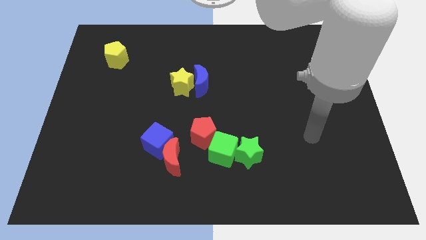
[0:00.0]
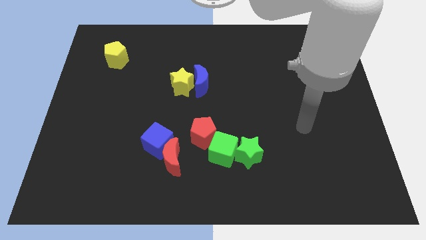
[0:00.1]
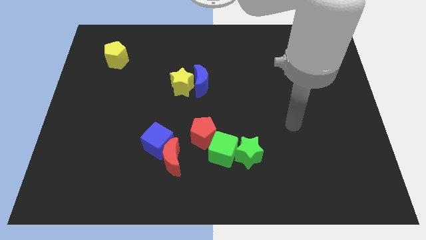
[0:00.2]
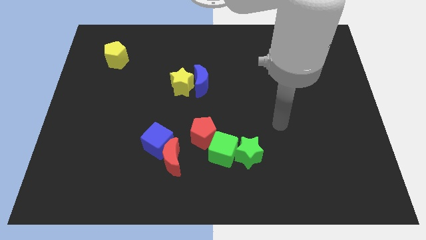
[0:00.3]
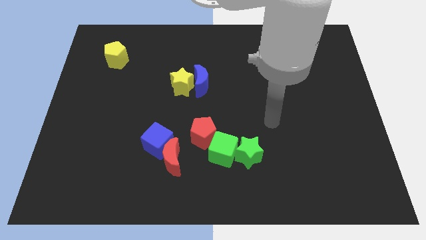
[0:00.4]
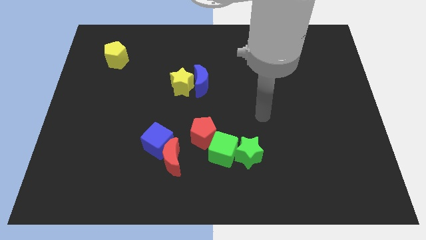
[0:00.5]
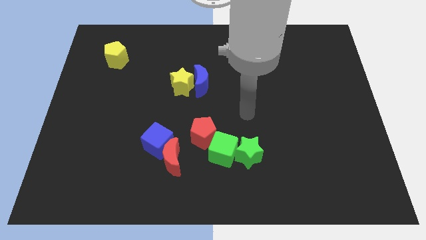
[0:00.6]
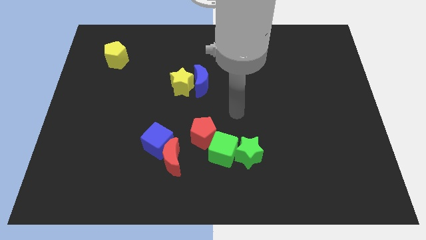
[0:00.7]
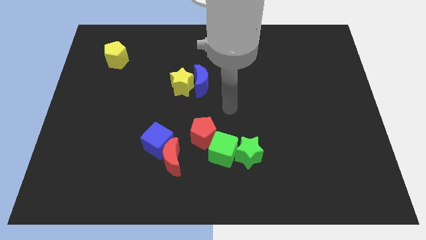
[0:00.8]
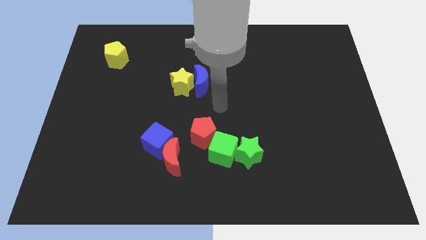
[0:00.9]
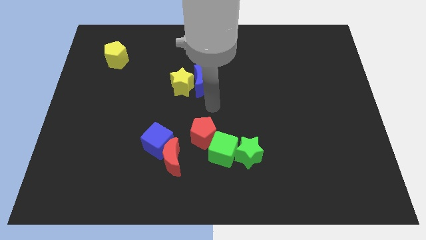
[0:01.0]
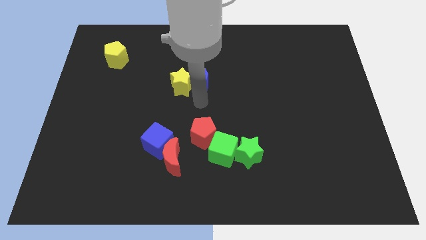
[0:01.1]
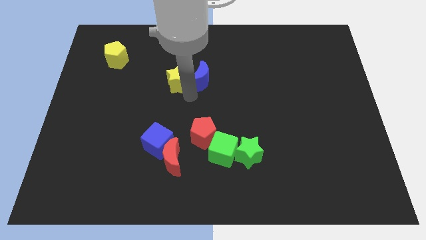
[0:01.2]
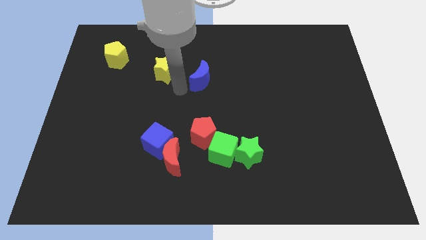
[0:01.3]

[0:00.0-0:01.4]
move the blue moon away from the yellow star

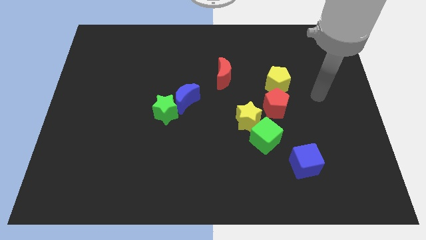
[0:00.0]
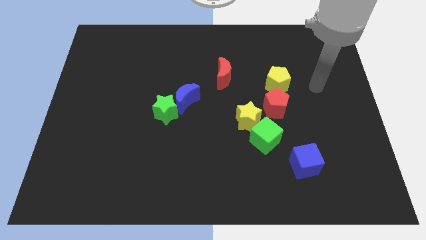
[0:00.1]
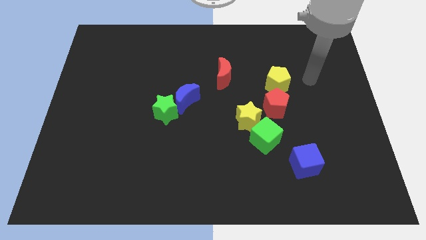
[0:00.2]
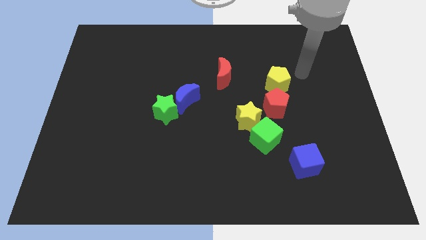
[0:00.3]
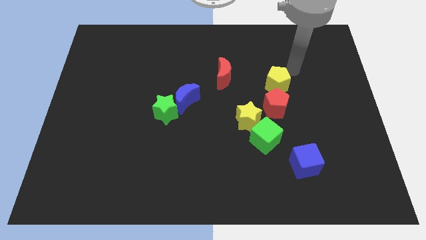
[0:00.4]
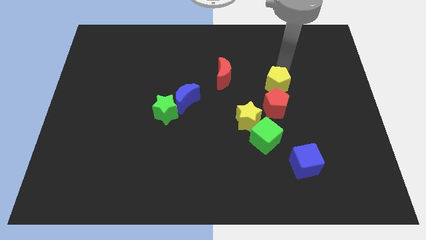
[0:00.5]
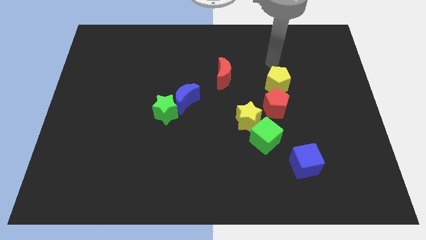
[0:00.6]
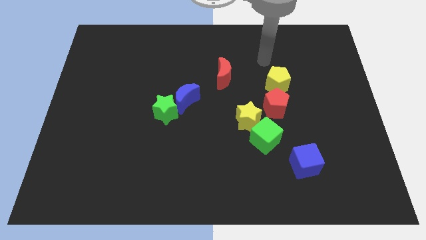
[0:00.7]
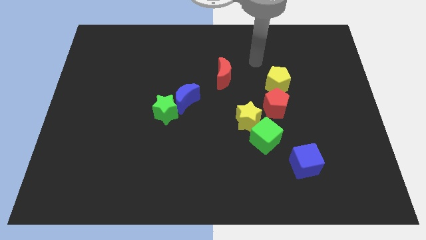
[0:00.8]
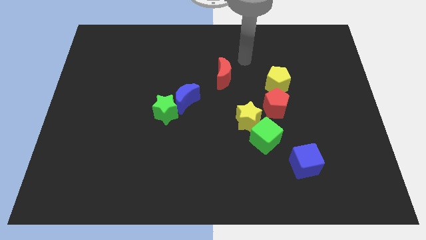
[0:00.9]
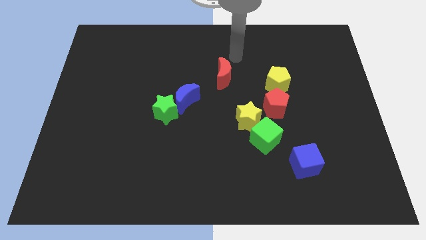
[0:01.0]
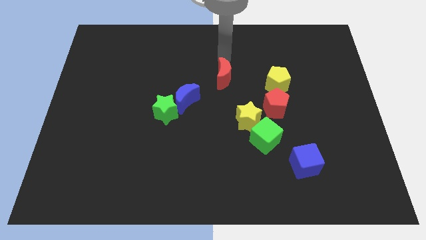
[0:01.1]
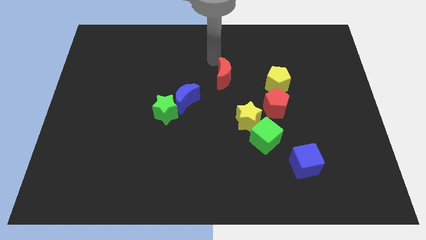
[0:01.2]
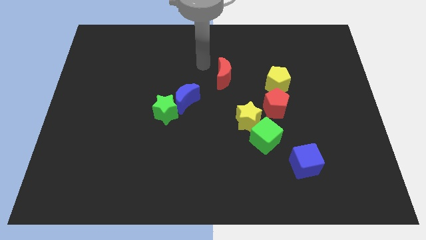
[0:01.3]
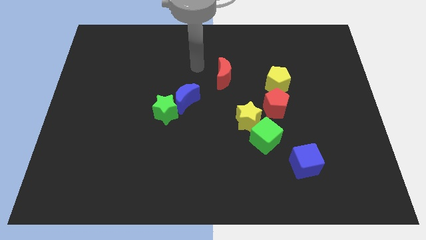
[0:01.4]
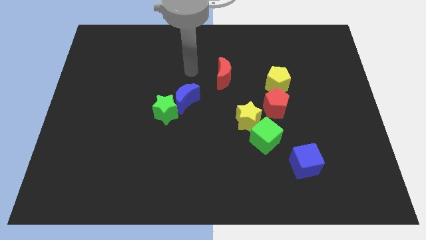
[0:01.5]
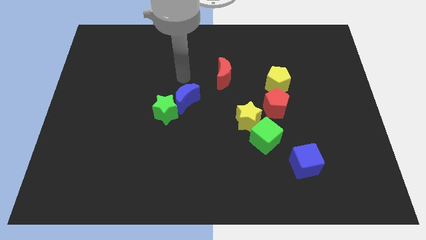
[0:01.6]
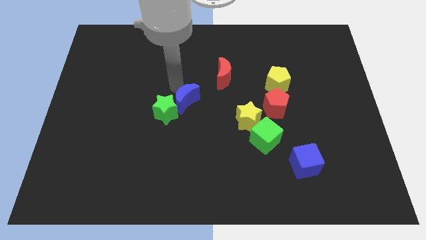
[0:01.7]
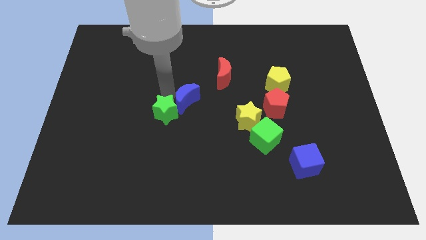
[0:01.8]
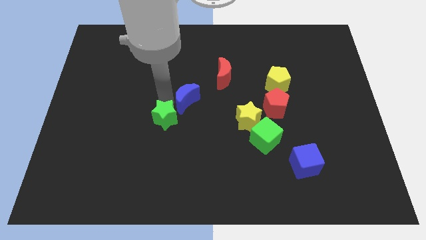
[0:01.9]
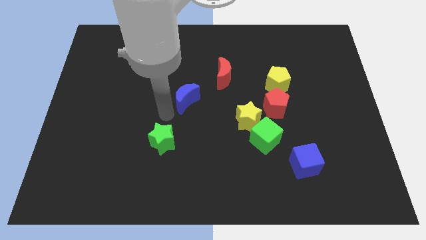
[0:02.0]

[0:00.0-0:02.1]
pull the blue moon apart from the green star

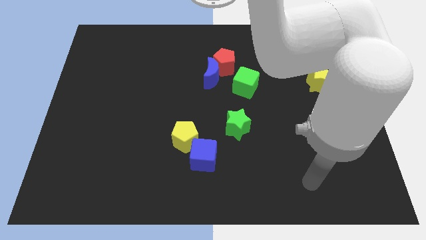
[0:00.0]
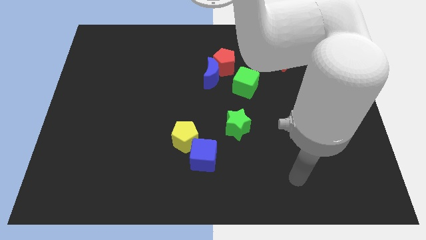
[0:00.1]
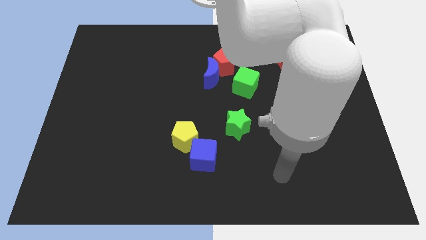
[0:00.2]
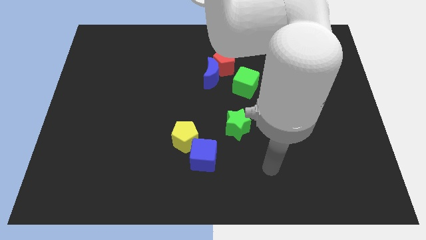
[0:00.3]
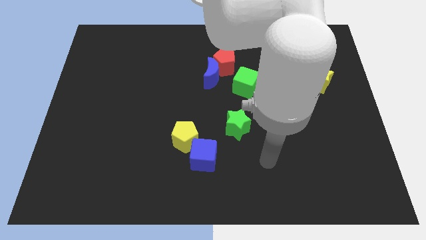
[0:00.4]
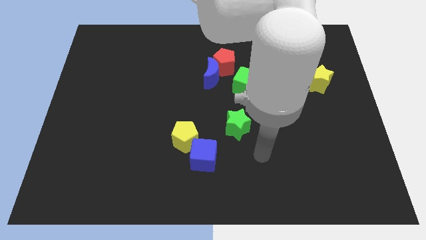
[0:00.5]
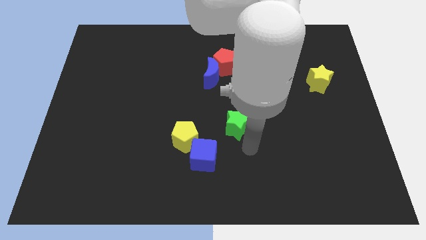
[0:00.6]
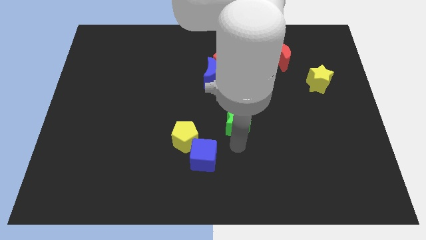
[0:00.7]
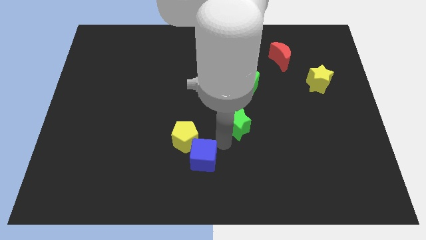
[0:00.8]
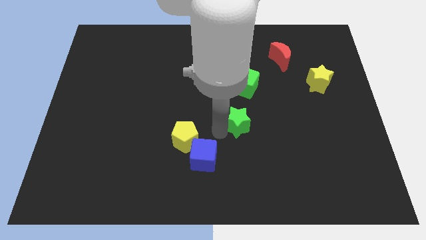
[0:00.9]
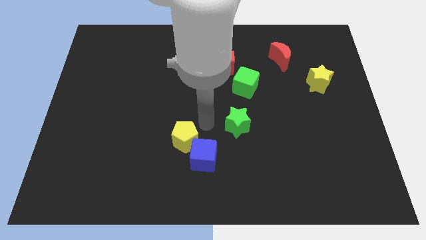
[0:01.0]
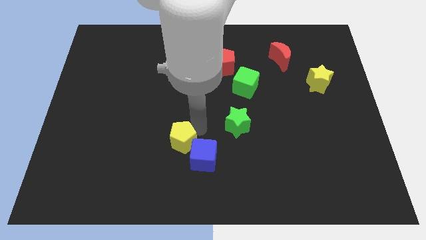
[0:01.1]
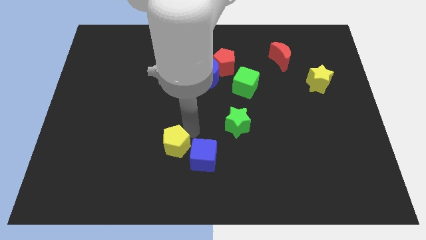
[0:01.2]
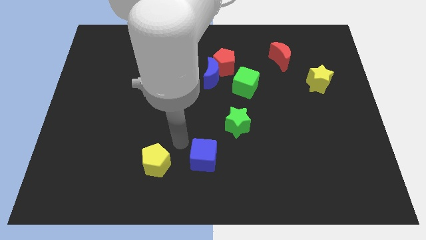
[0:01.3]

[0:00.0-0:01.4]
pull the blue cube apart from the yellow pentagon

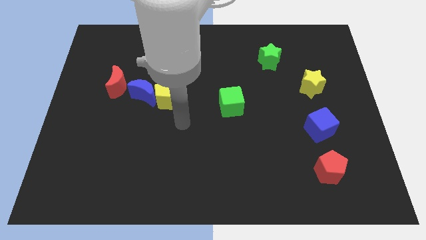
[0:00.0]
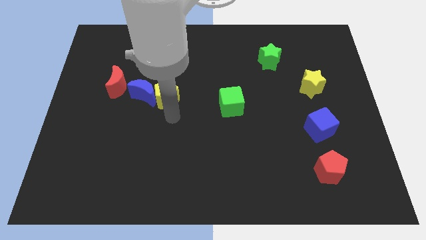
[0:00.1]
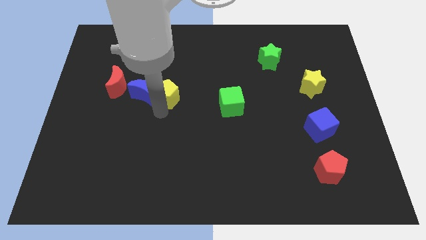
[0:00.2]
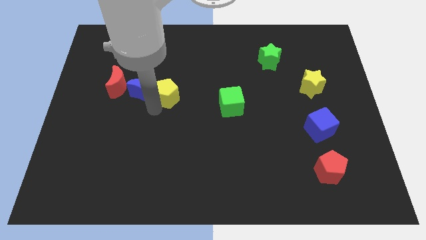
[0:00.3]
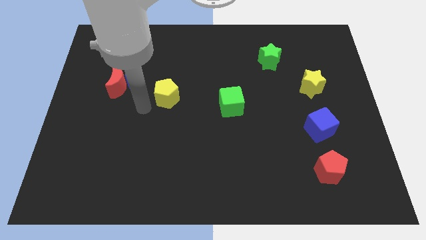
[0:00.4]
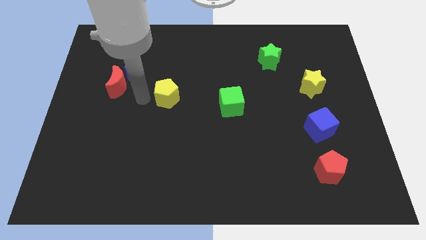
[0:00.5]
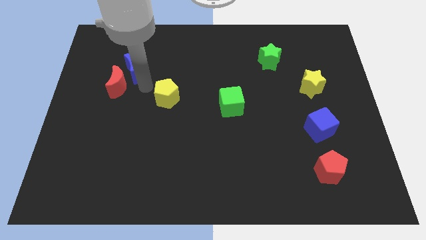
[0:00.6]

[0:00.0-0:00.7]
pull the yellow pentagon apart from the blue moon

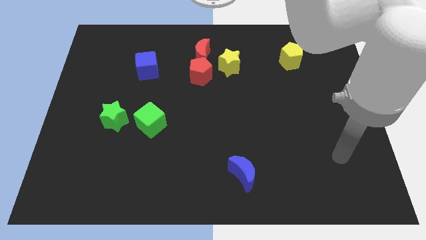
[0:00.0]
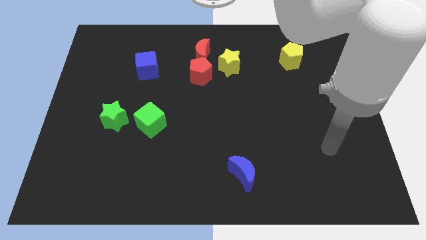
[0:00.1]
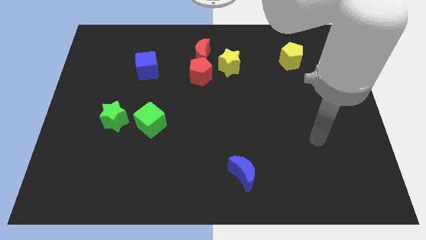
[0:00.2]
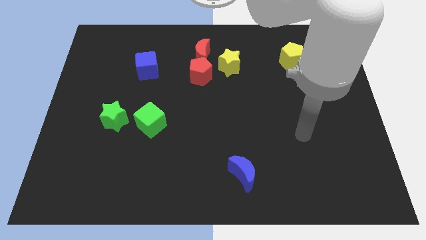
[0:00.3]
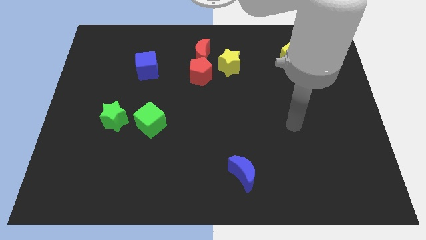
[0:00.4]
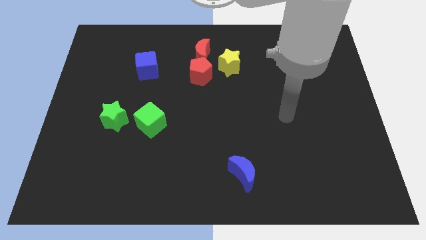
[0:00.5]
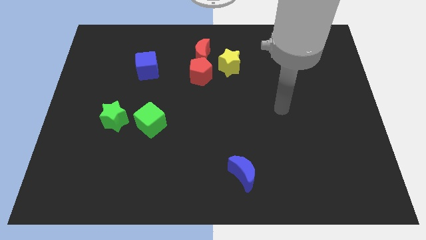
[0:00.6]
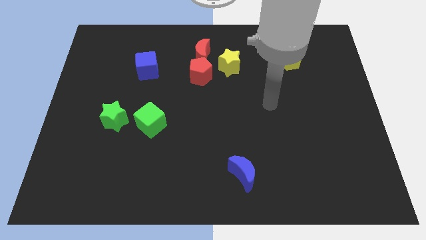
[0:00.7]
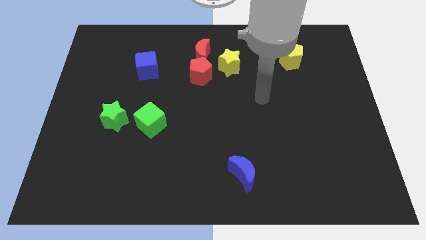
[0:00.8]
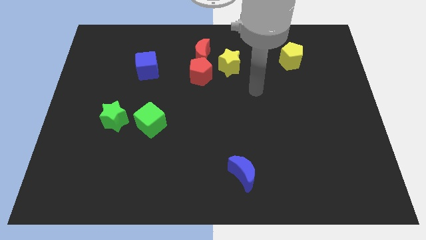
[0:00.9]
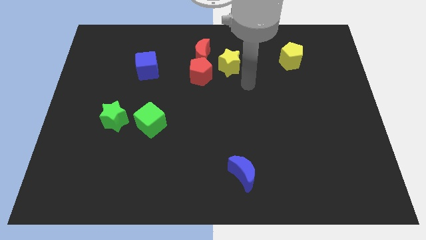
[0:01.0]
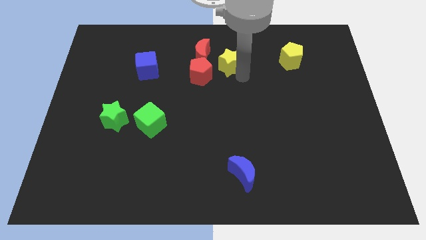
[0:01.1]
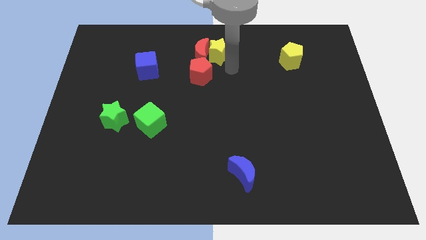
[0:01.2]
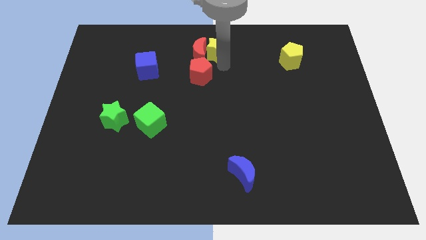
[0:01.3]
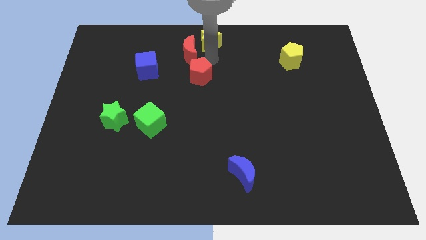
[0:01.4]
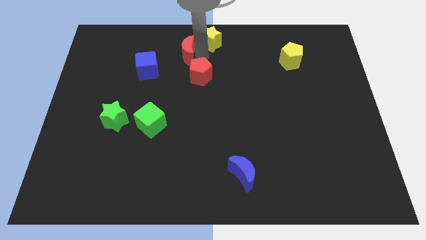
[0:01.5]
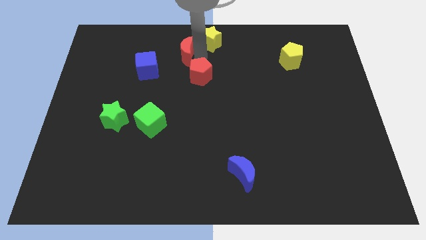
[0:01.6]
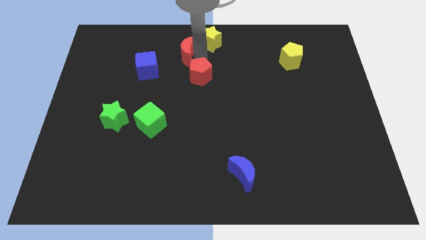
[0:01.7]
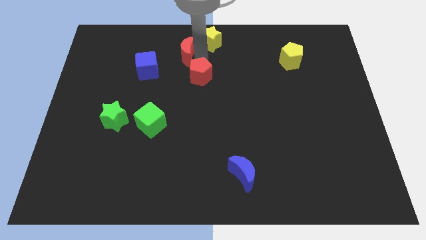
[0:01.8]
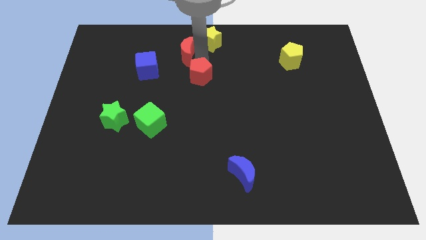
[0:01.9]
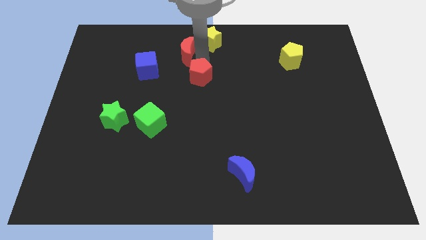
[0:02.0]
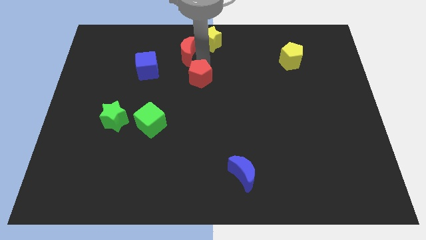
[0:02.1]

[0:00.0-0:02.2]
separate the red pentagon from the red moon and yellow star

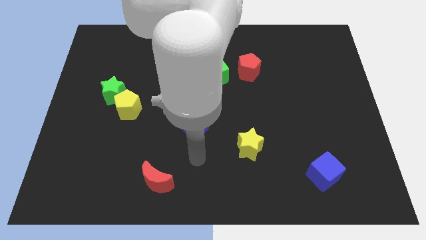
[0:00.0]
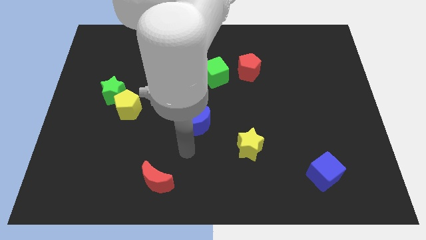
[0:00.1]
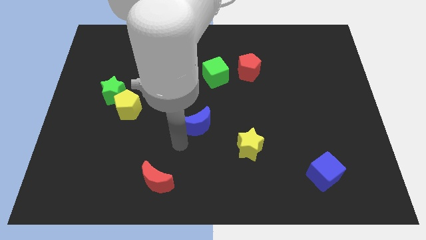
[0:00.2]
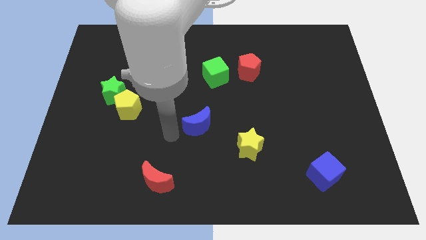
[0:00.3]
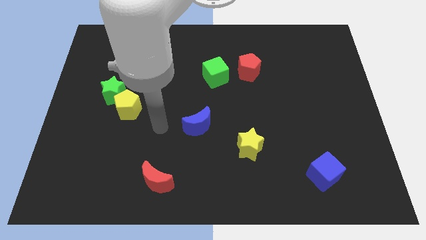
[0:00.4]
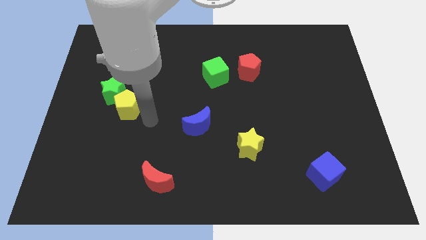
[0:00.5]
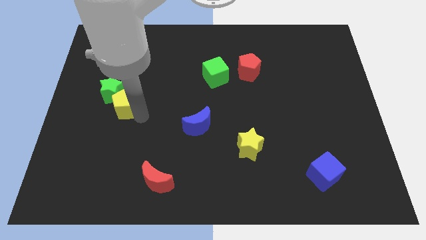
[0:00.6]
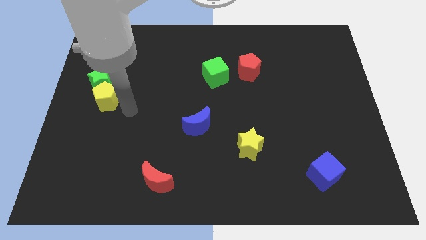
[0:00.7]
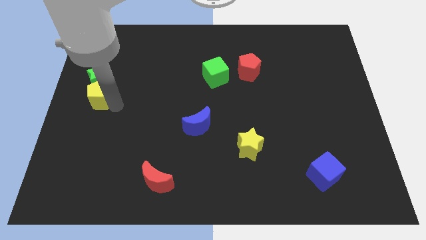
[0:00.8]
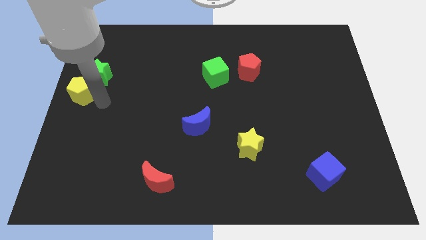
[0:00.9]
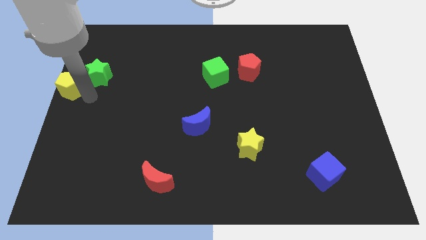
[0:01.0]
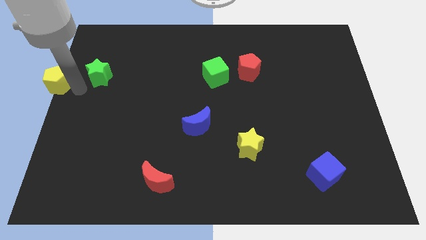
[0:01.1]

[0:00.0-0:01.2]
pull the green star apart from the yellow pentagon

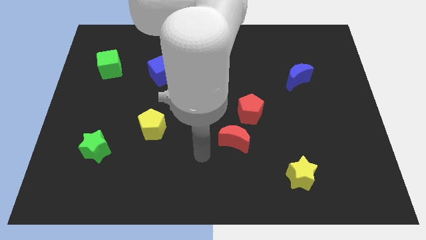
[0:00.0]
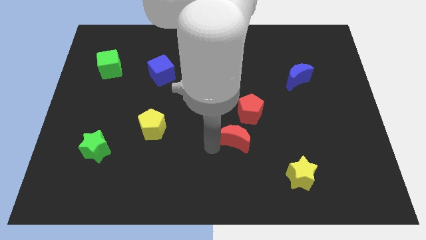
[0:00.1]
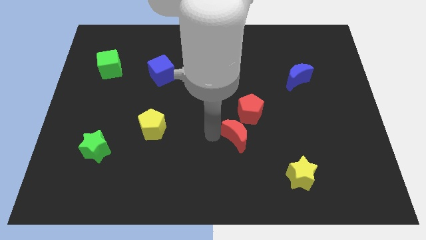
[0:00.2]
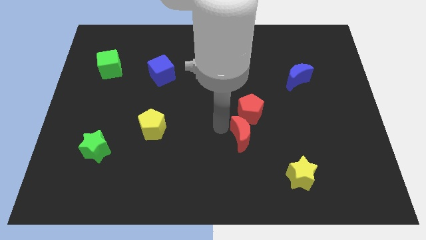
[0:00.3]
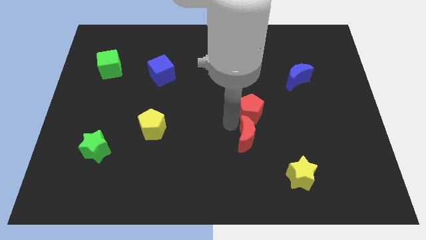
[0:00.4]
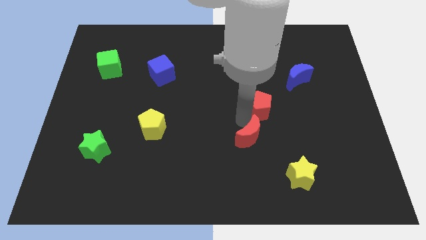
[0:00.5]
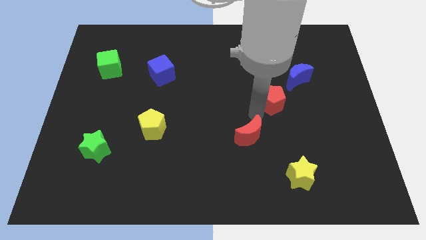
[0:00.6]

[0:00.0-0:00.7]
move the red moon away from the red pentagon
